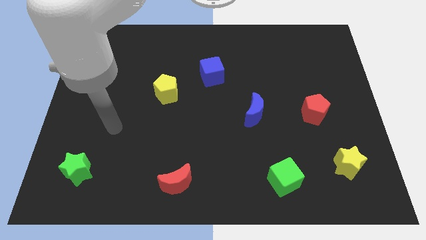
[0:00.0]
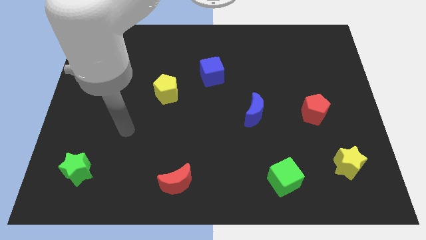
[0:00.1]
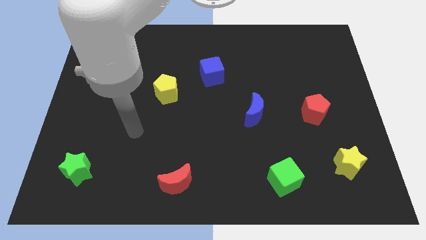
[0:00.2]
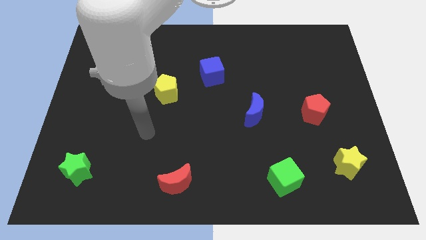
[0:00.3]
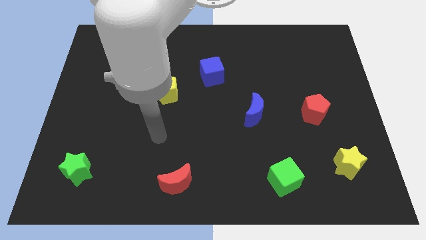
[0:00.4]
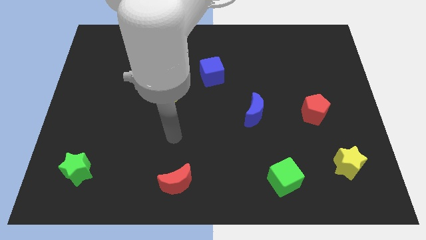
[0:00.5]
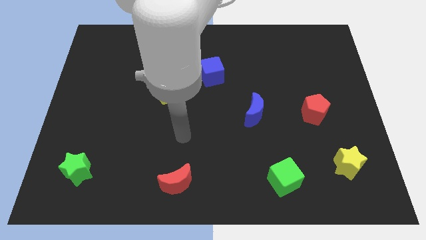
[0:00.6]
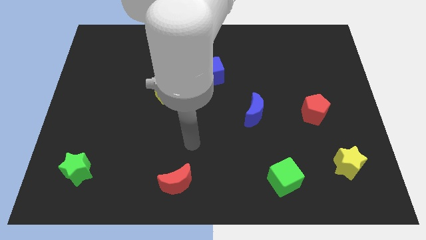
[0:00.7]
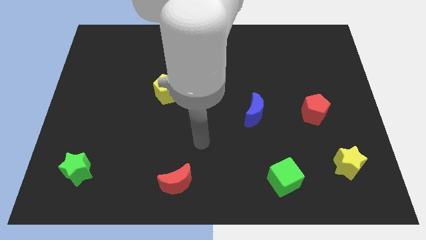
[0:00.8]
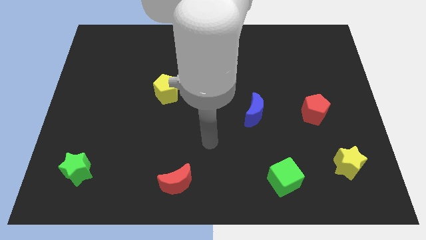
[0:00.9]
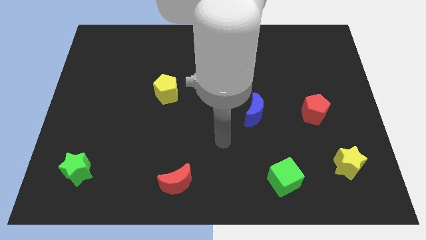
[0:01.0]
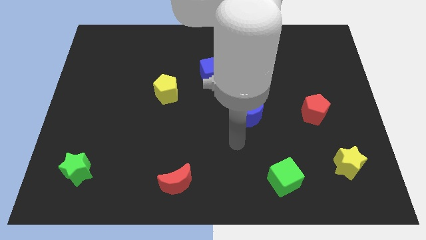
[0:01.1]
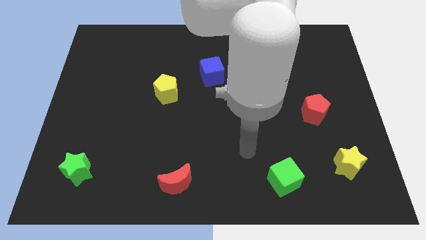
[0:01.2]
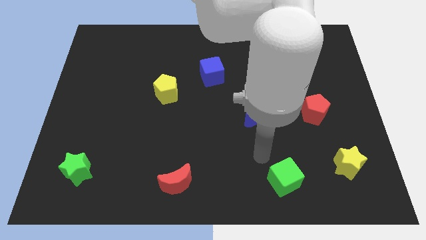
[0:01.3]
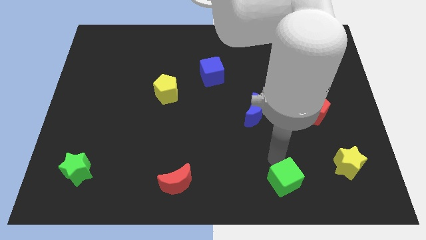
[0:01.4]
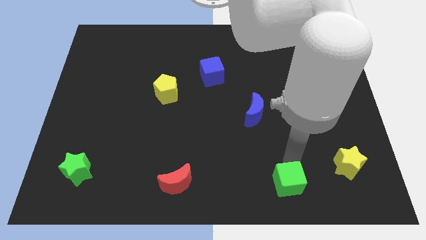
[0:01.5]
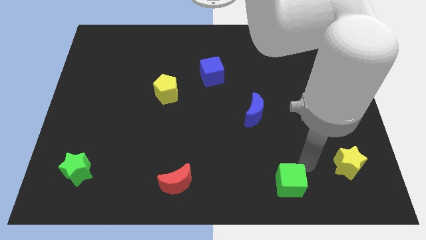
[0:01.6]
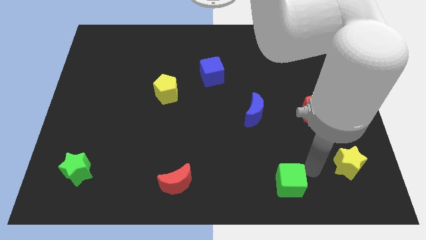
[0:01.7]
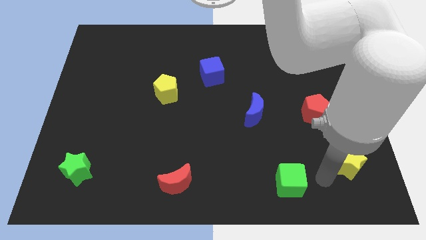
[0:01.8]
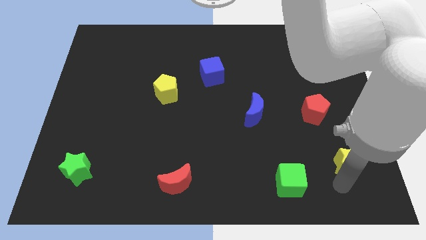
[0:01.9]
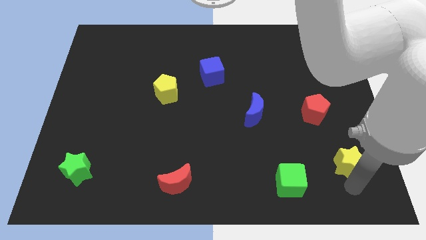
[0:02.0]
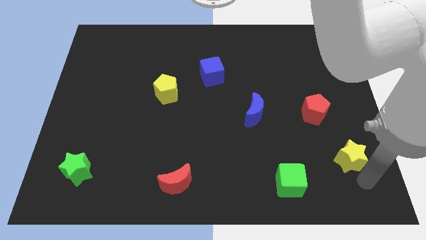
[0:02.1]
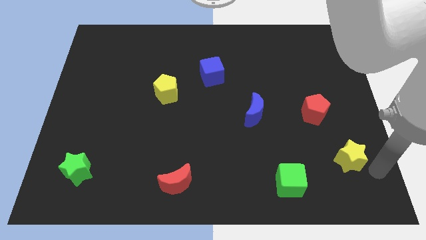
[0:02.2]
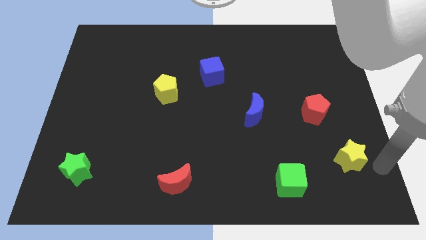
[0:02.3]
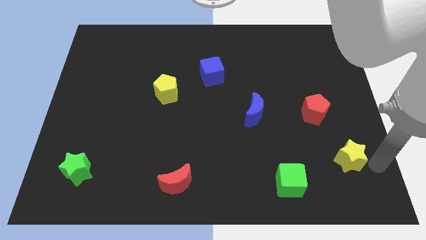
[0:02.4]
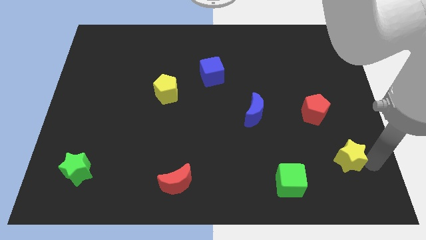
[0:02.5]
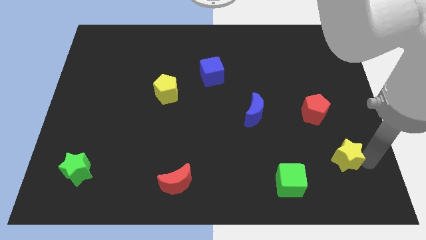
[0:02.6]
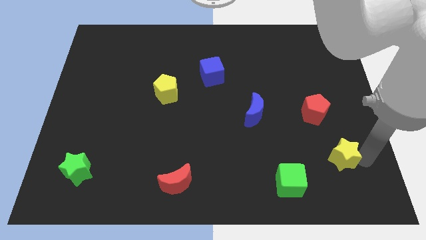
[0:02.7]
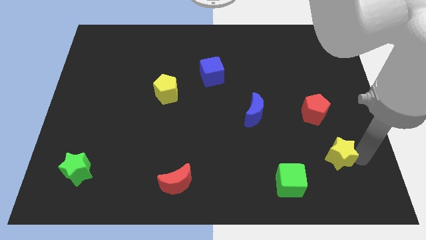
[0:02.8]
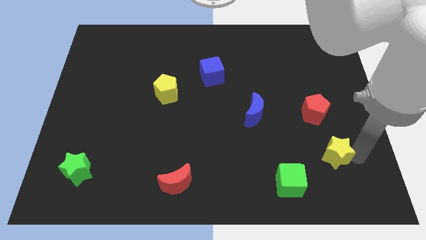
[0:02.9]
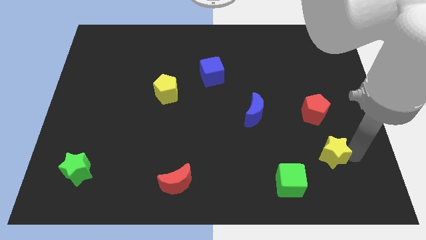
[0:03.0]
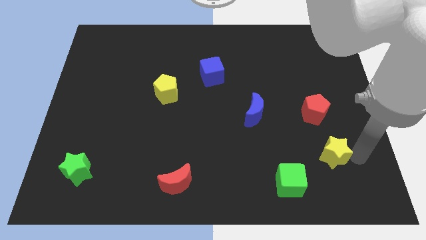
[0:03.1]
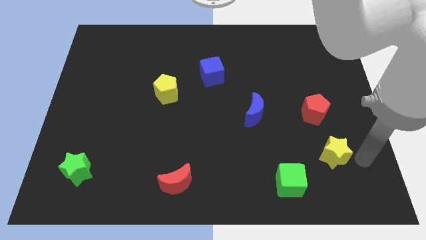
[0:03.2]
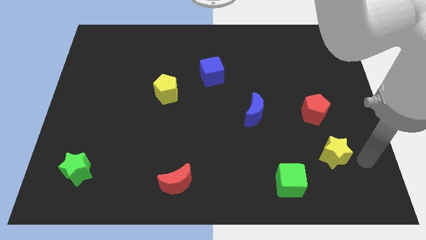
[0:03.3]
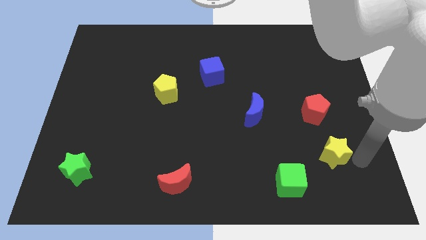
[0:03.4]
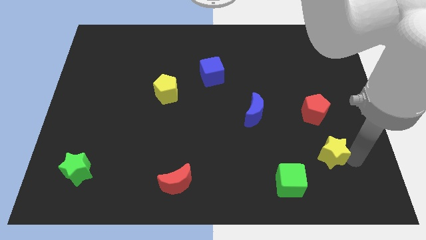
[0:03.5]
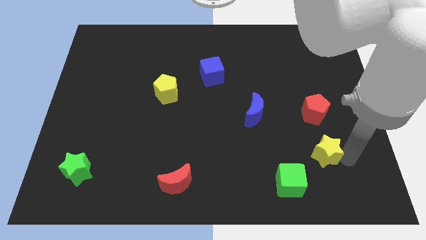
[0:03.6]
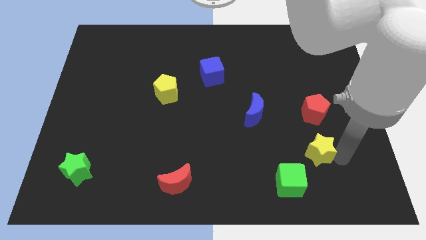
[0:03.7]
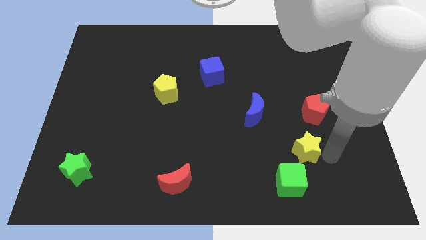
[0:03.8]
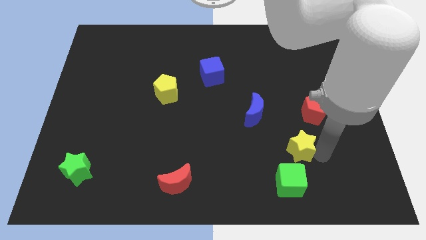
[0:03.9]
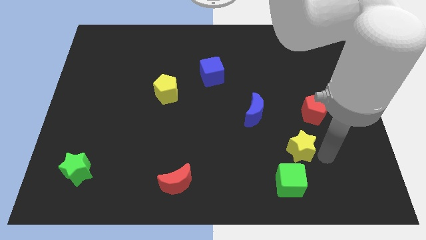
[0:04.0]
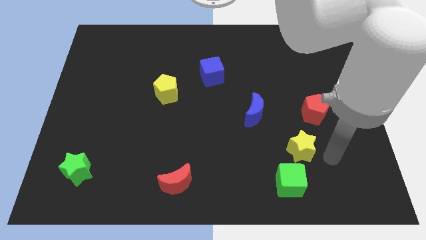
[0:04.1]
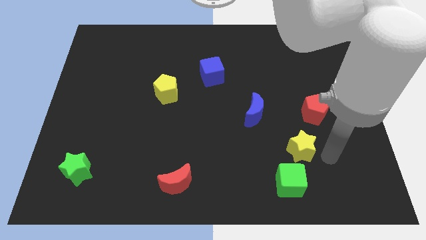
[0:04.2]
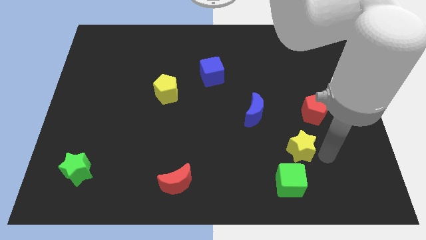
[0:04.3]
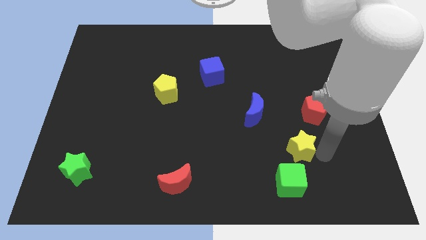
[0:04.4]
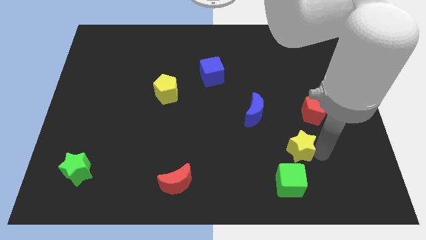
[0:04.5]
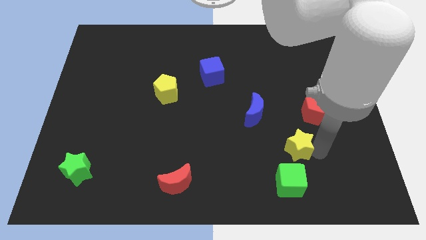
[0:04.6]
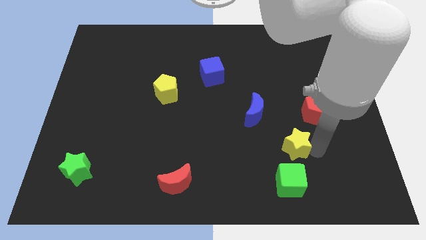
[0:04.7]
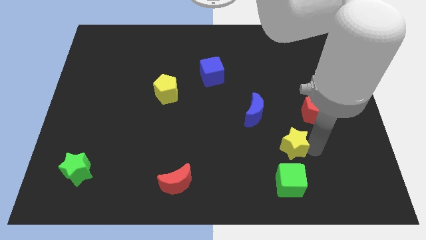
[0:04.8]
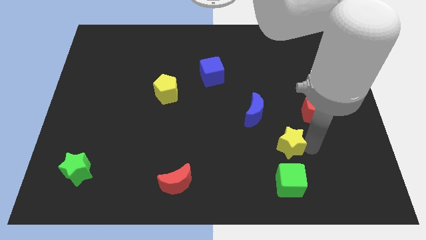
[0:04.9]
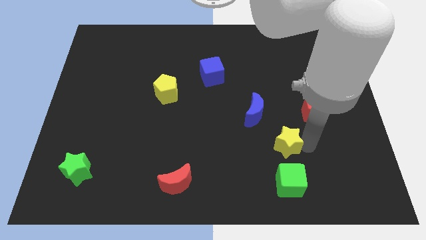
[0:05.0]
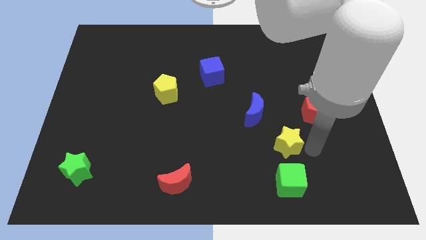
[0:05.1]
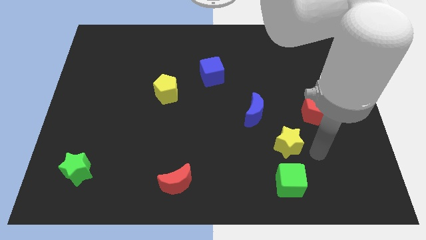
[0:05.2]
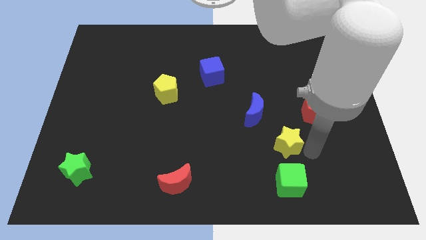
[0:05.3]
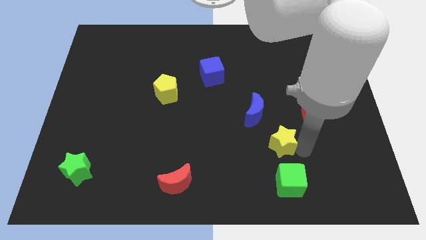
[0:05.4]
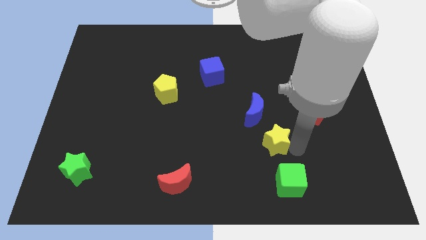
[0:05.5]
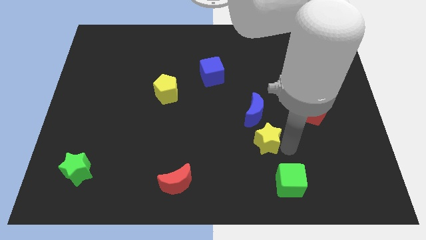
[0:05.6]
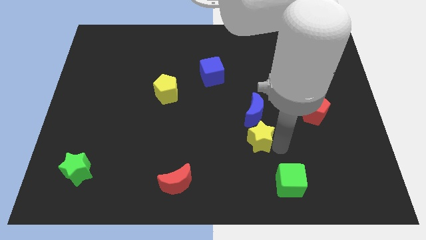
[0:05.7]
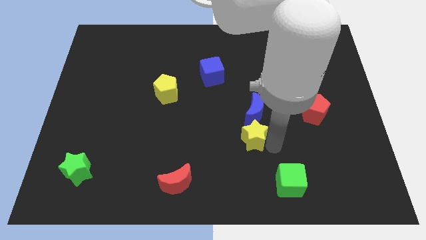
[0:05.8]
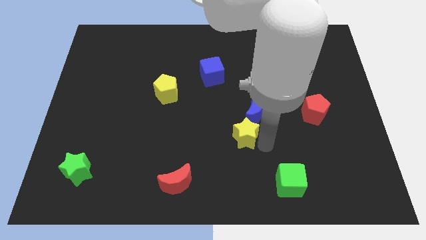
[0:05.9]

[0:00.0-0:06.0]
slide the yellow star to the center of the board

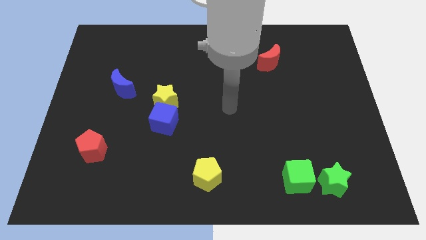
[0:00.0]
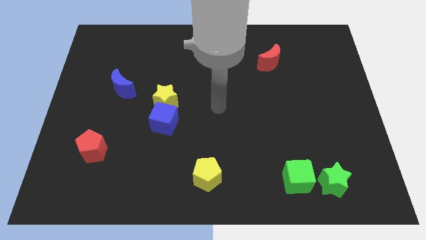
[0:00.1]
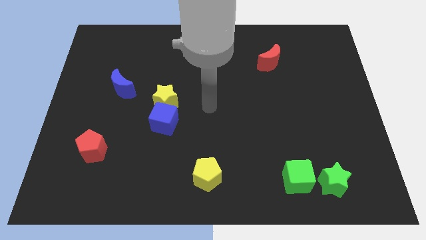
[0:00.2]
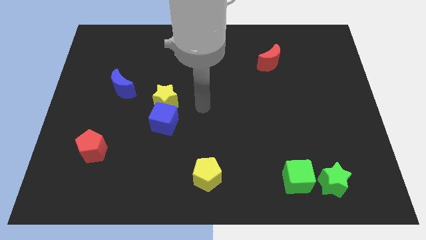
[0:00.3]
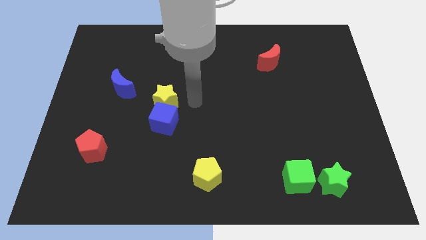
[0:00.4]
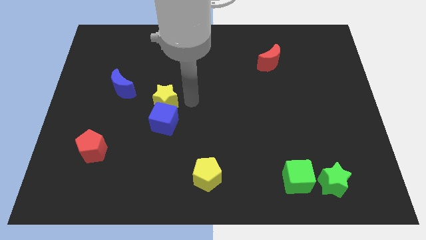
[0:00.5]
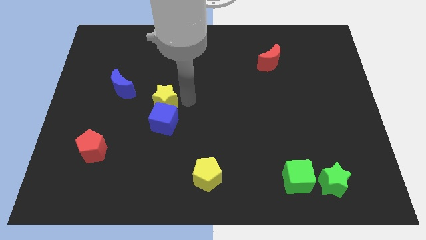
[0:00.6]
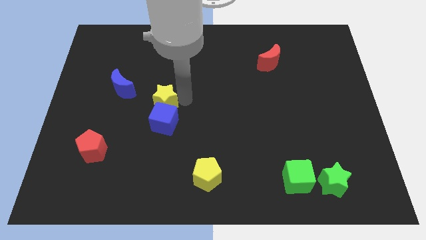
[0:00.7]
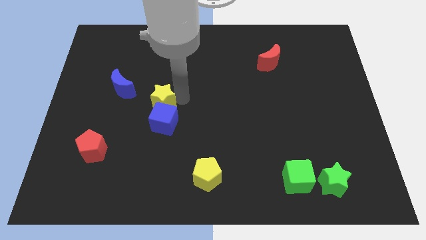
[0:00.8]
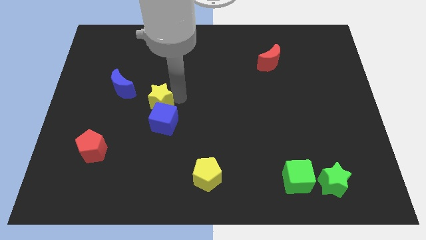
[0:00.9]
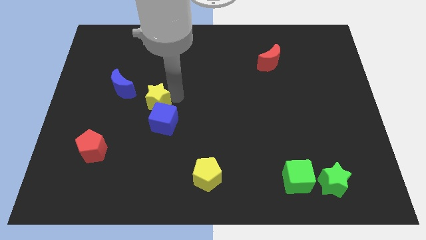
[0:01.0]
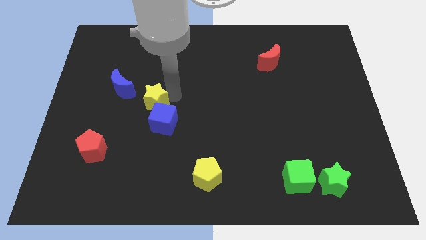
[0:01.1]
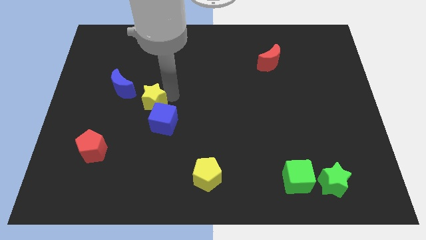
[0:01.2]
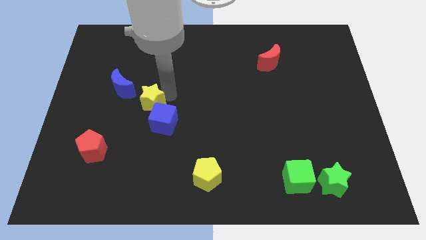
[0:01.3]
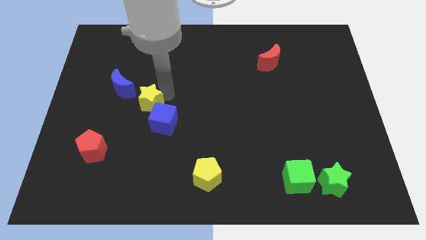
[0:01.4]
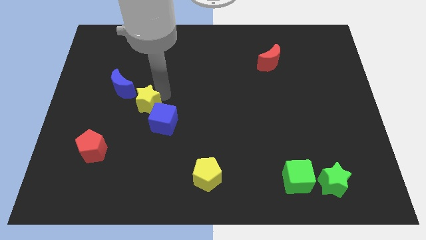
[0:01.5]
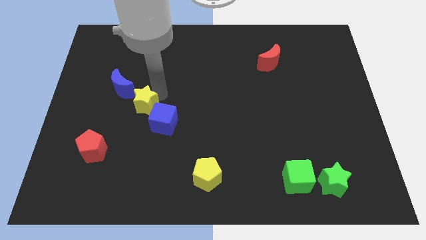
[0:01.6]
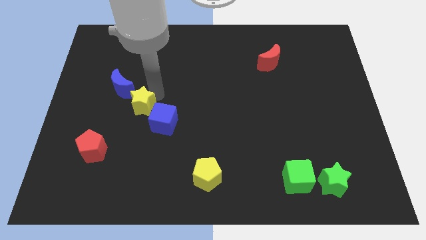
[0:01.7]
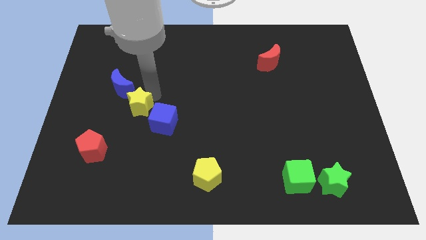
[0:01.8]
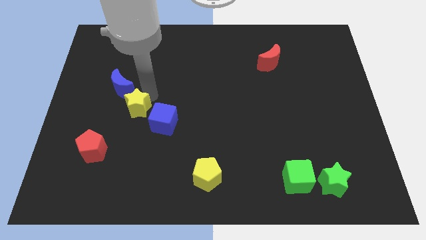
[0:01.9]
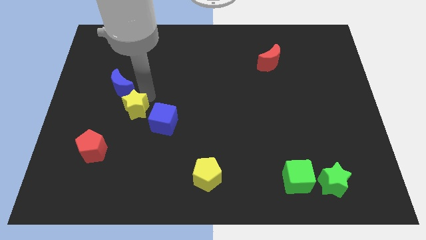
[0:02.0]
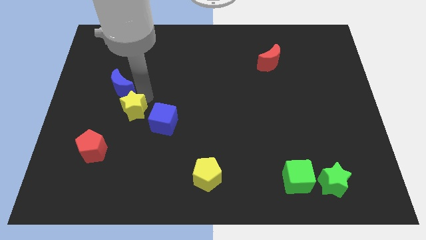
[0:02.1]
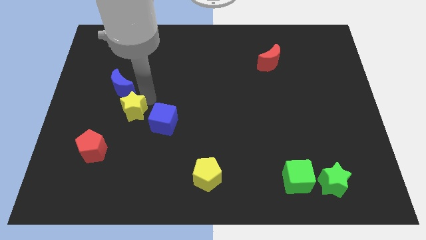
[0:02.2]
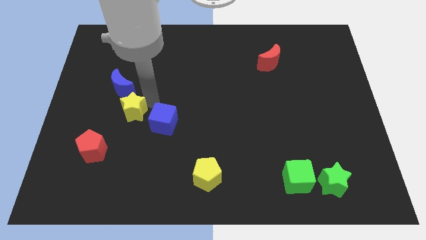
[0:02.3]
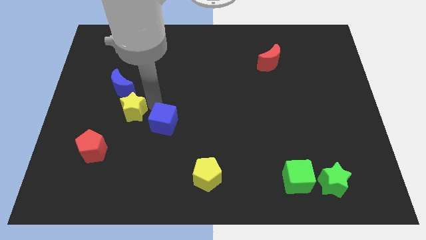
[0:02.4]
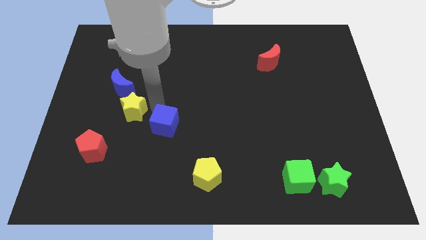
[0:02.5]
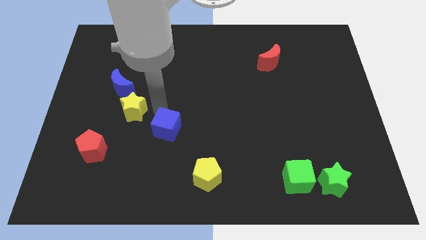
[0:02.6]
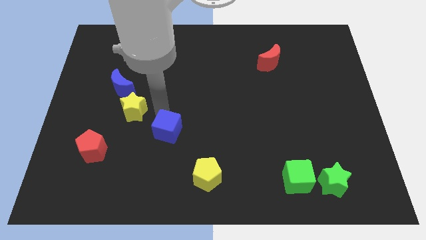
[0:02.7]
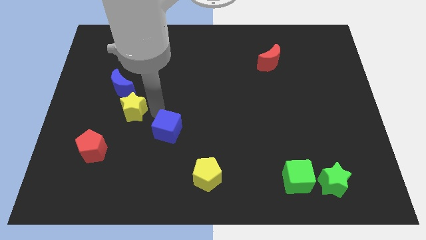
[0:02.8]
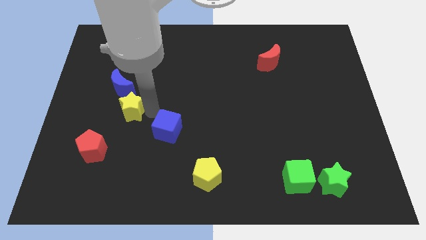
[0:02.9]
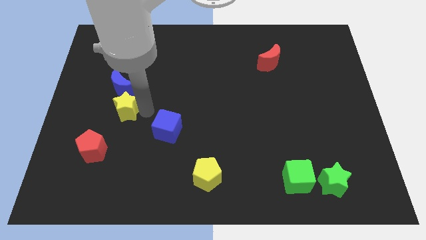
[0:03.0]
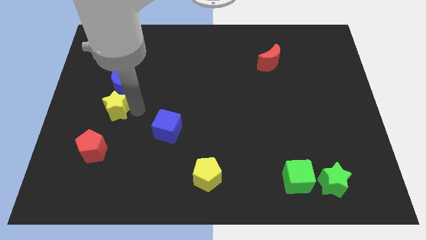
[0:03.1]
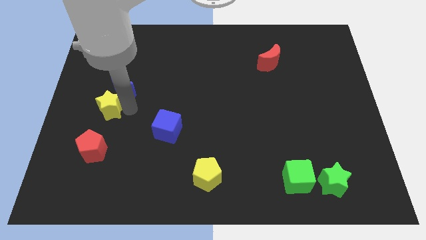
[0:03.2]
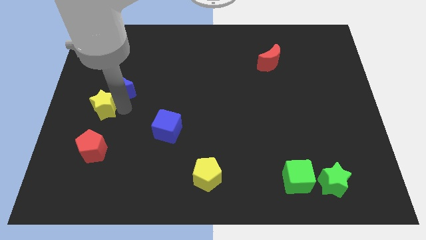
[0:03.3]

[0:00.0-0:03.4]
move the yellow star to the left side of the board
